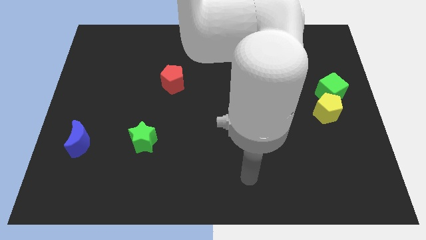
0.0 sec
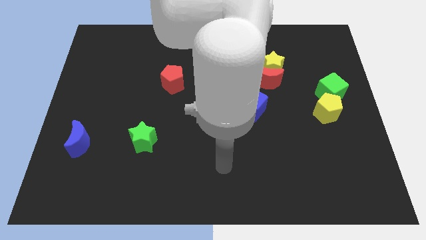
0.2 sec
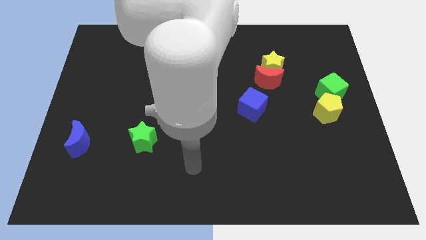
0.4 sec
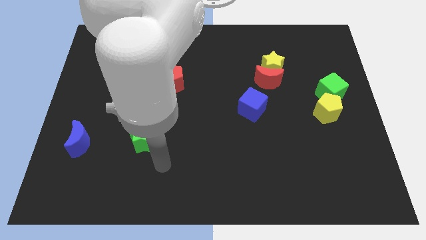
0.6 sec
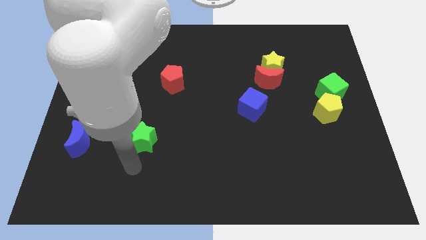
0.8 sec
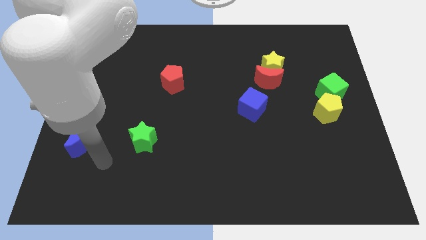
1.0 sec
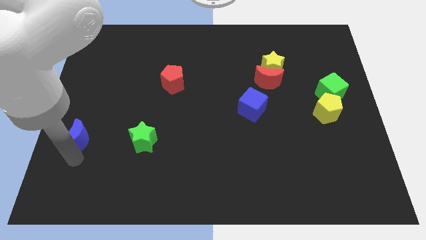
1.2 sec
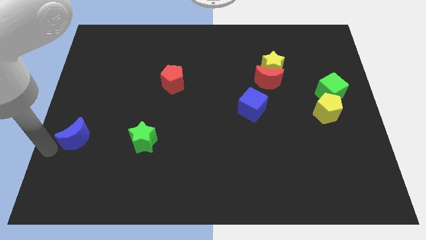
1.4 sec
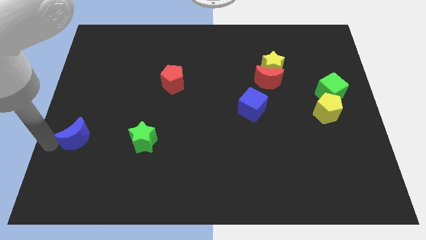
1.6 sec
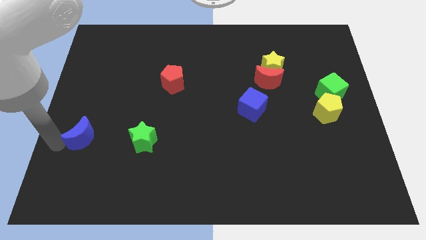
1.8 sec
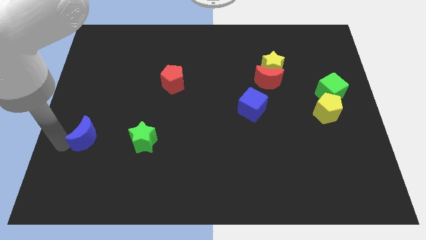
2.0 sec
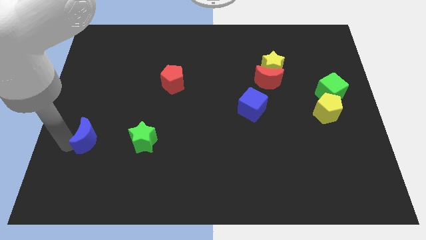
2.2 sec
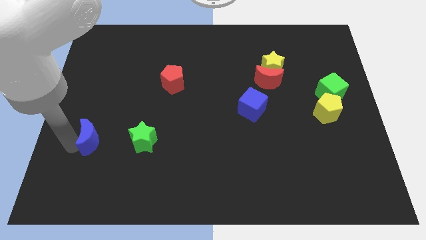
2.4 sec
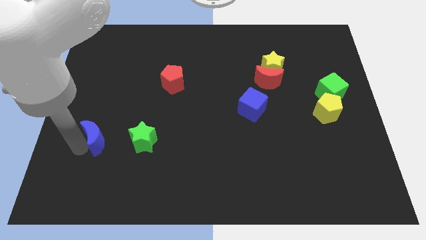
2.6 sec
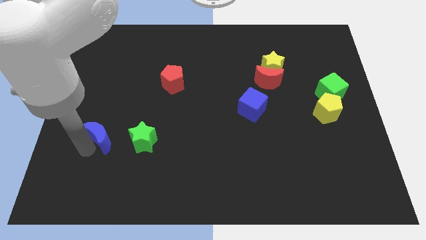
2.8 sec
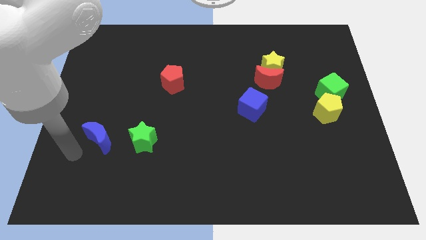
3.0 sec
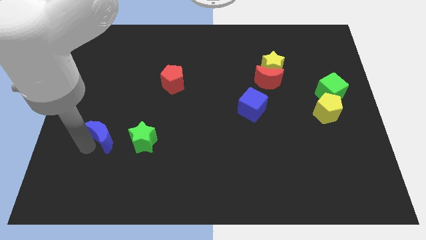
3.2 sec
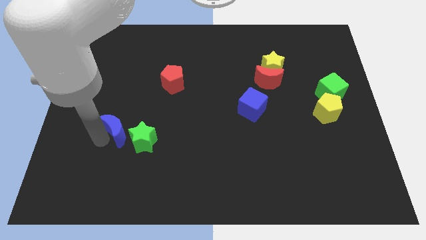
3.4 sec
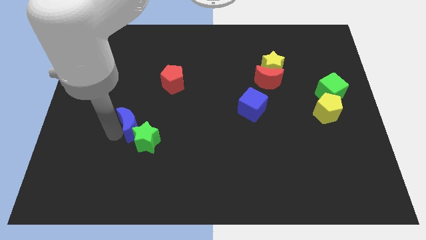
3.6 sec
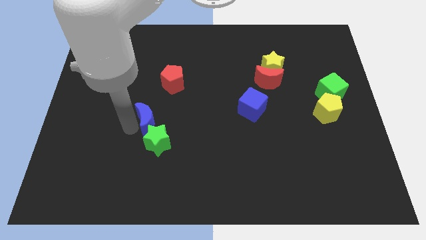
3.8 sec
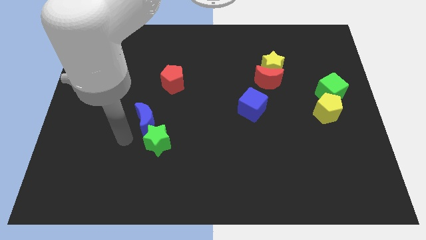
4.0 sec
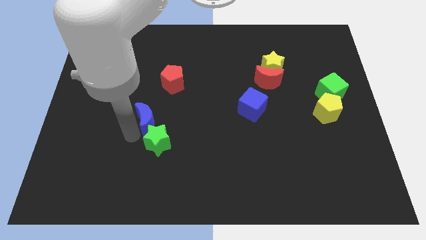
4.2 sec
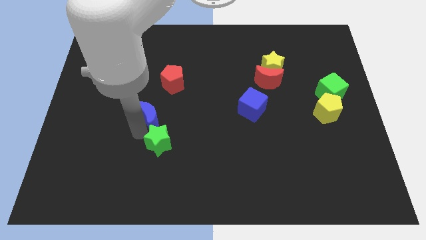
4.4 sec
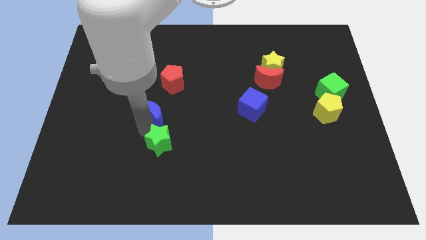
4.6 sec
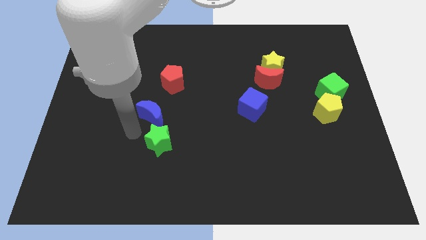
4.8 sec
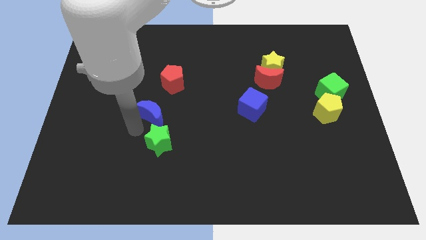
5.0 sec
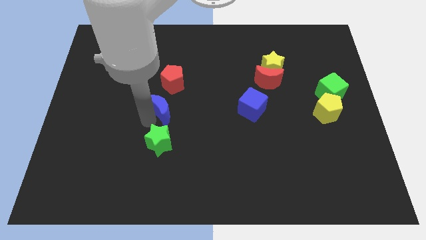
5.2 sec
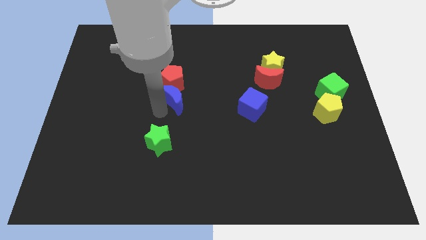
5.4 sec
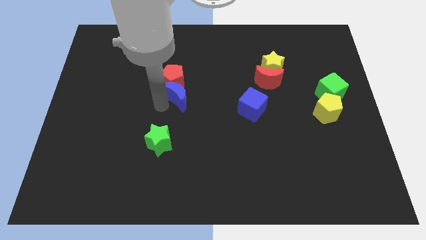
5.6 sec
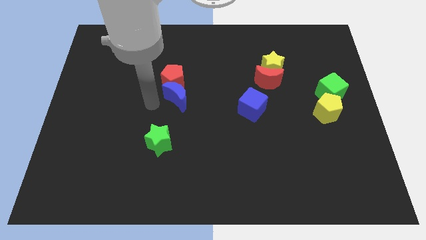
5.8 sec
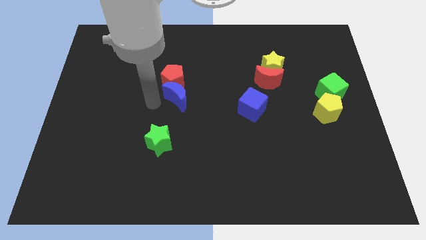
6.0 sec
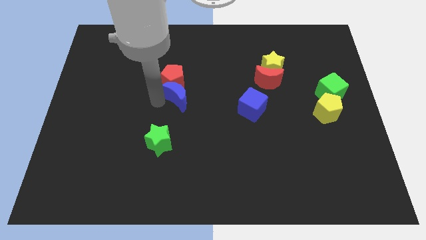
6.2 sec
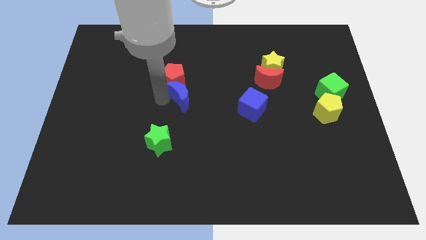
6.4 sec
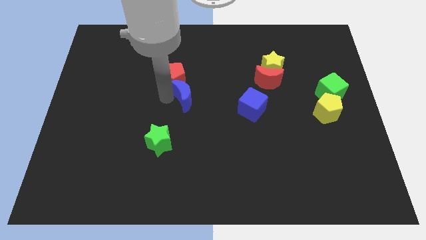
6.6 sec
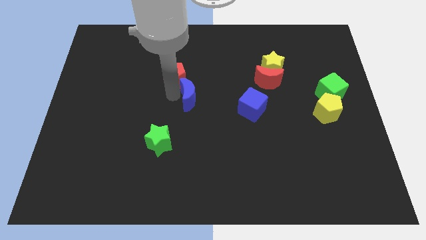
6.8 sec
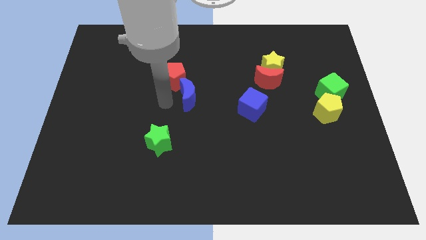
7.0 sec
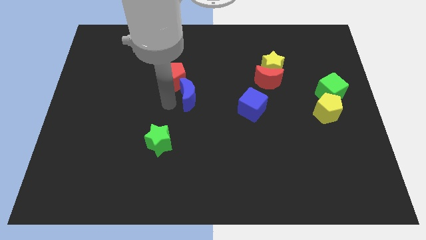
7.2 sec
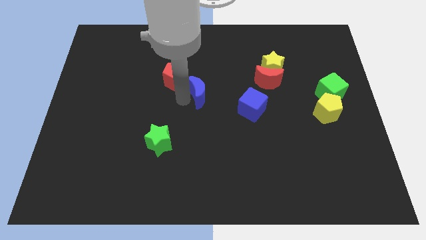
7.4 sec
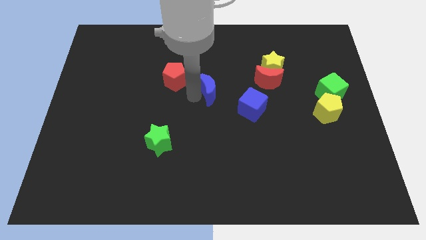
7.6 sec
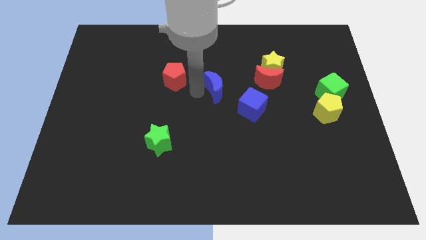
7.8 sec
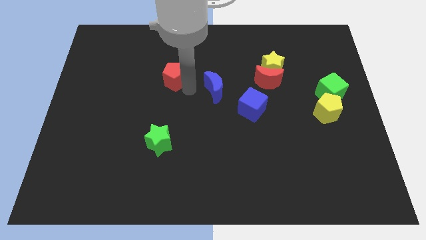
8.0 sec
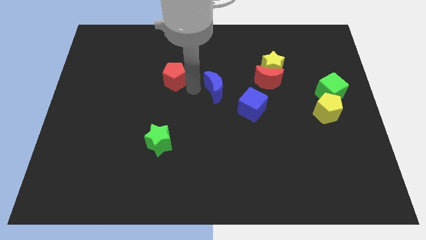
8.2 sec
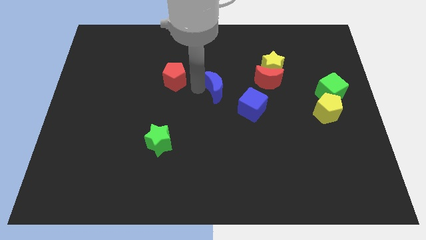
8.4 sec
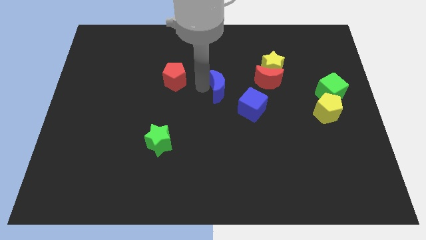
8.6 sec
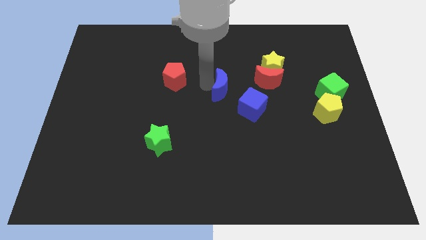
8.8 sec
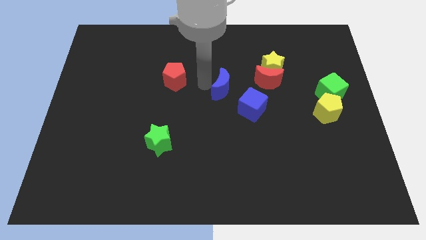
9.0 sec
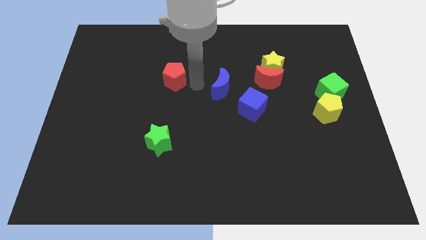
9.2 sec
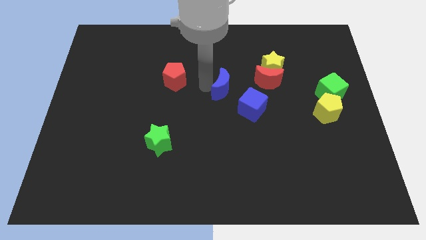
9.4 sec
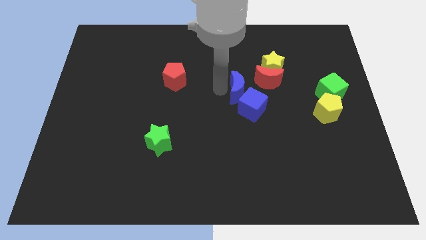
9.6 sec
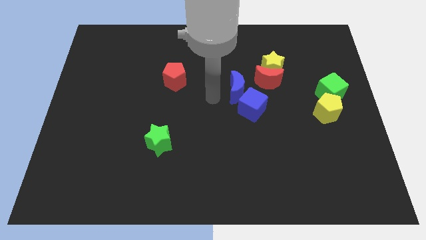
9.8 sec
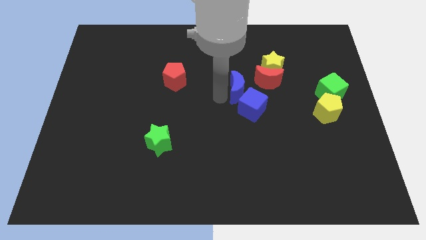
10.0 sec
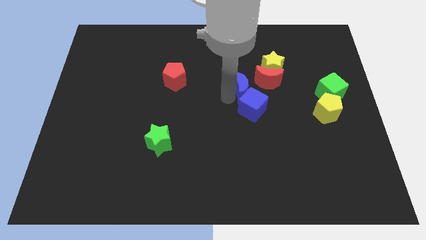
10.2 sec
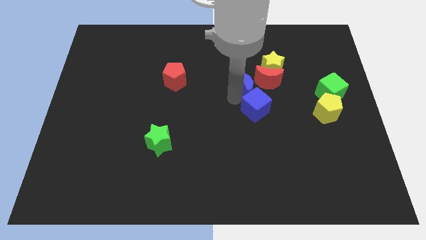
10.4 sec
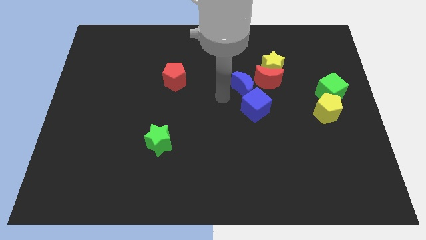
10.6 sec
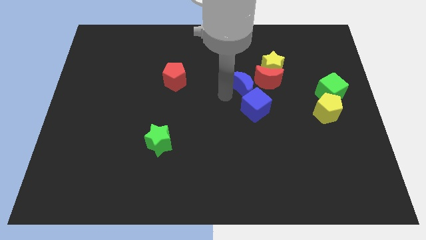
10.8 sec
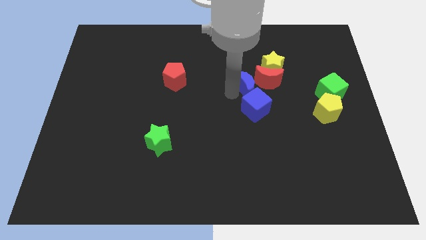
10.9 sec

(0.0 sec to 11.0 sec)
slide the blue moon towards the red moon

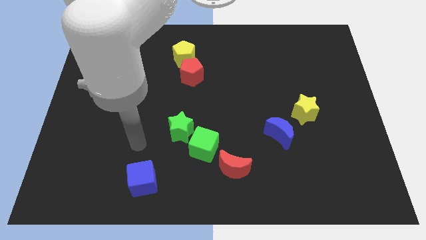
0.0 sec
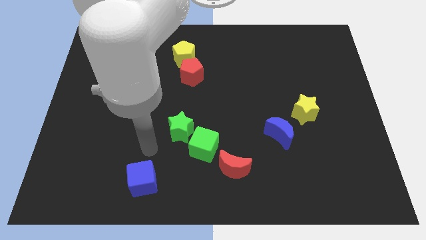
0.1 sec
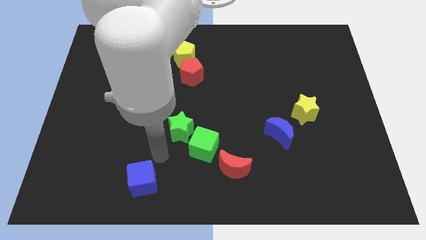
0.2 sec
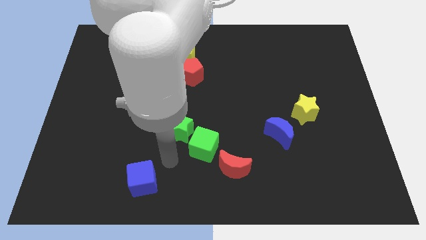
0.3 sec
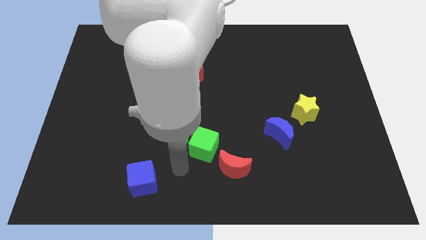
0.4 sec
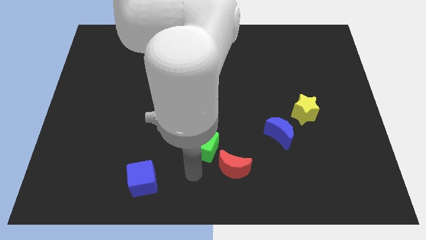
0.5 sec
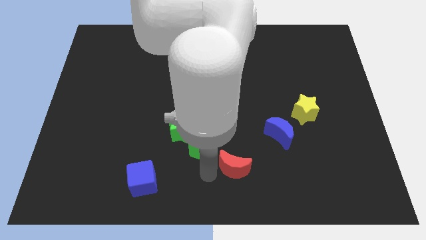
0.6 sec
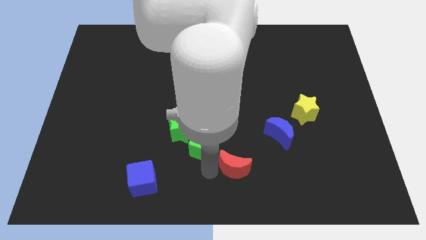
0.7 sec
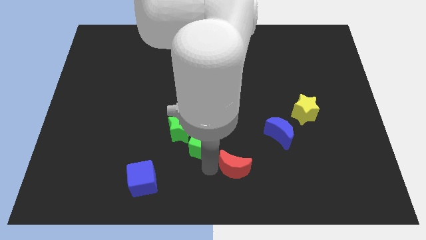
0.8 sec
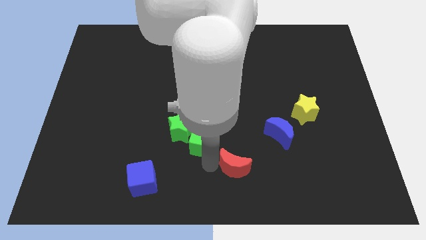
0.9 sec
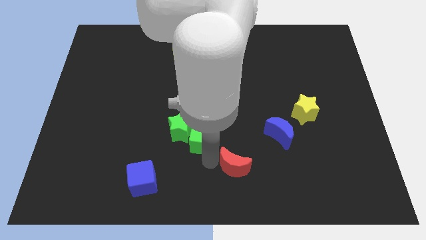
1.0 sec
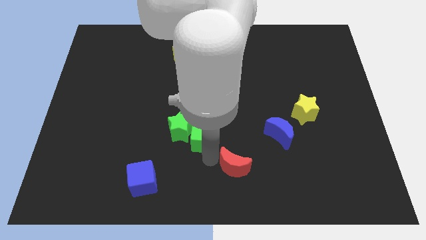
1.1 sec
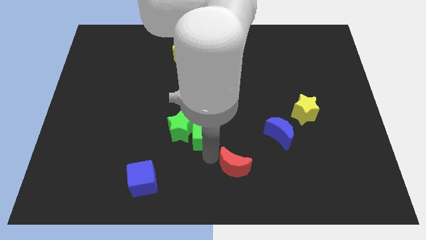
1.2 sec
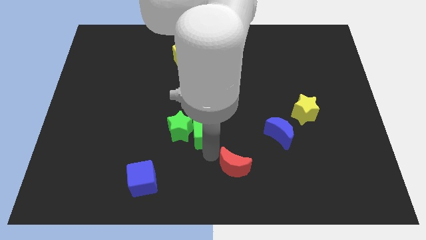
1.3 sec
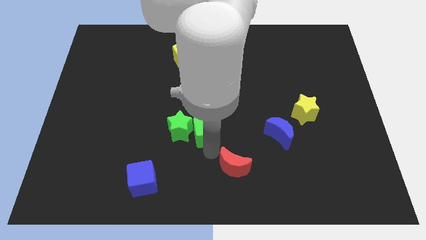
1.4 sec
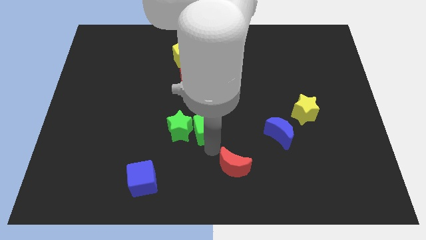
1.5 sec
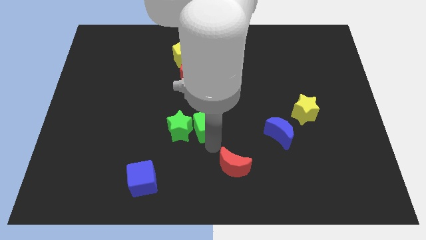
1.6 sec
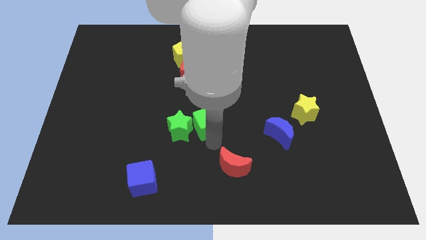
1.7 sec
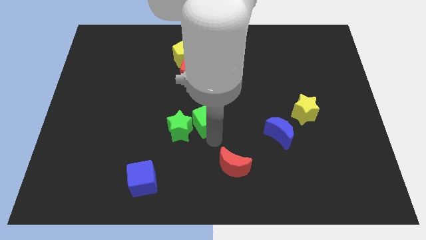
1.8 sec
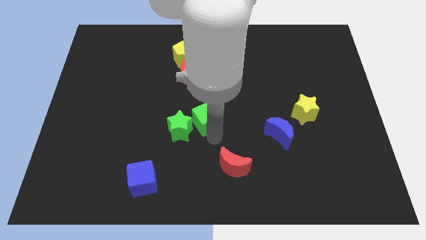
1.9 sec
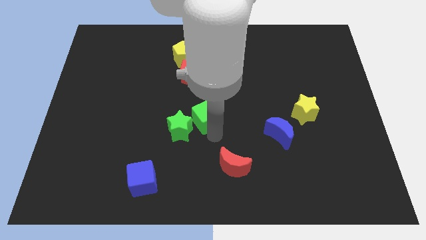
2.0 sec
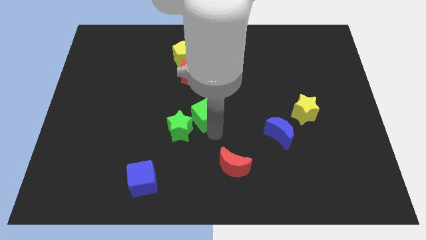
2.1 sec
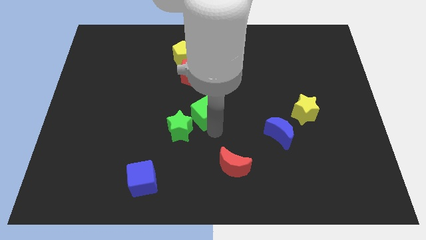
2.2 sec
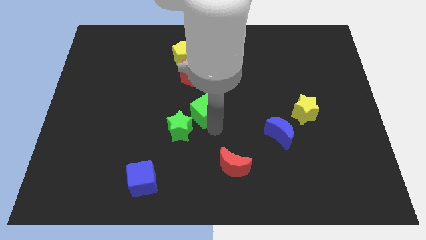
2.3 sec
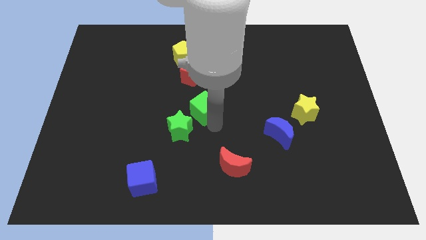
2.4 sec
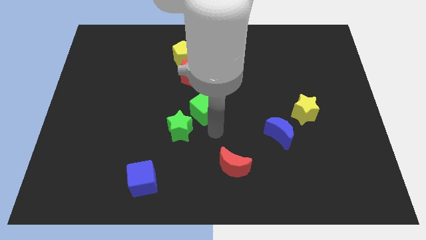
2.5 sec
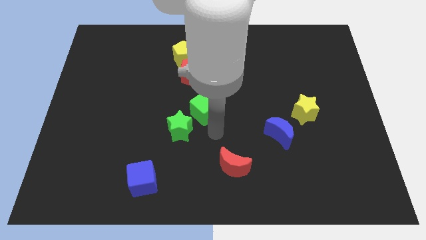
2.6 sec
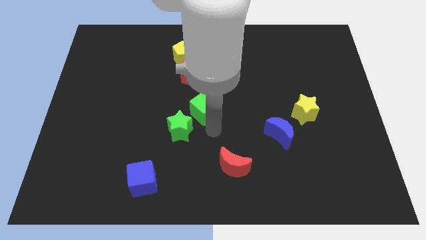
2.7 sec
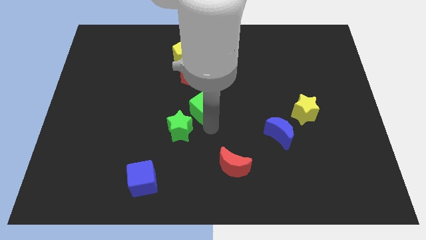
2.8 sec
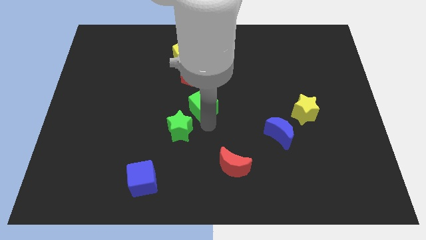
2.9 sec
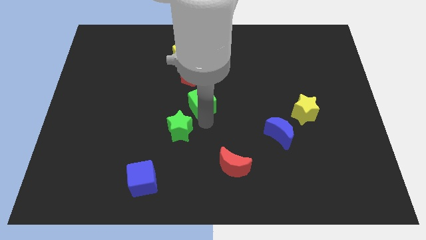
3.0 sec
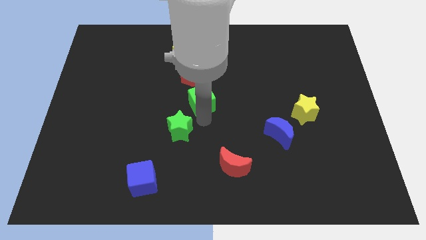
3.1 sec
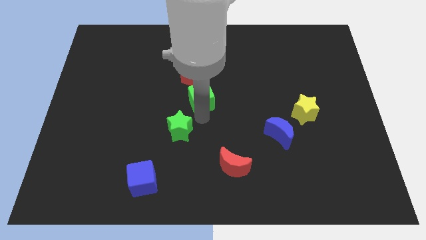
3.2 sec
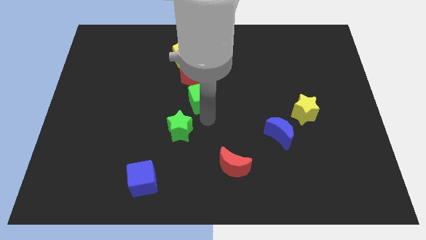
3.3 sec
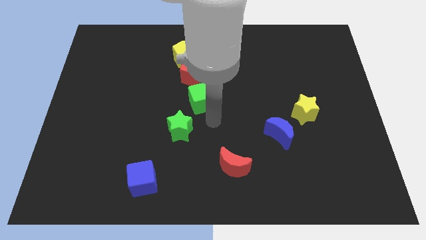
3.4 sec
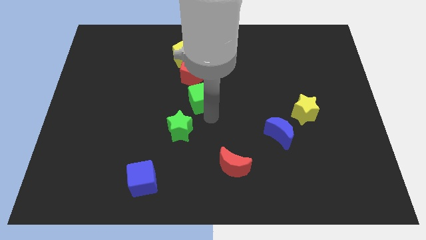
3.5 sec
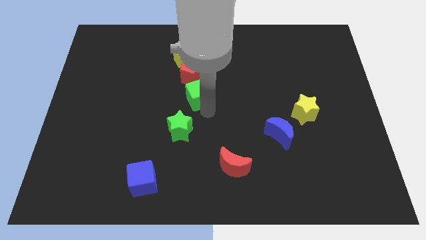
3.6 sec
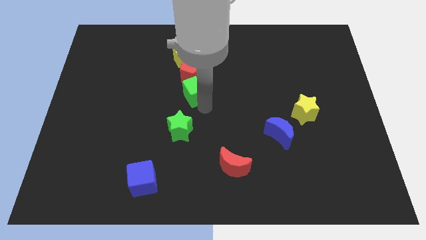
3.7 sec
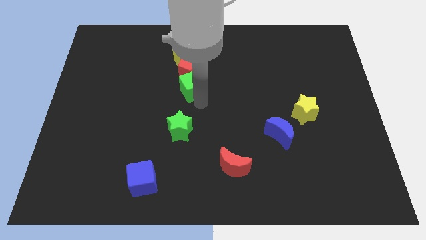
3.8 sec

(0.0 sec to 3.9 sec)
move the green cube towards the red pentagon
